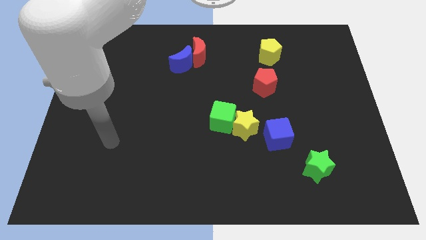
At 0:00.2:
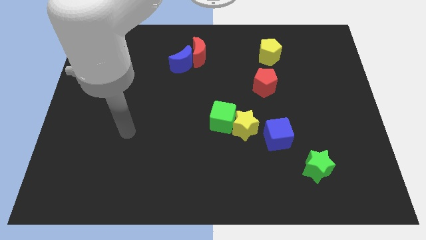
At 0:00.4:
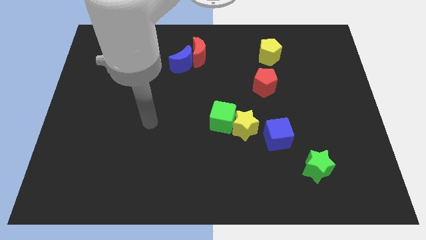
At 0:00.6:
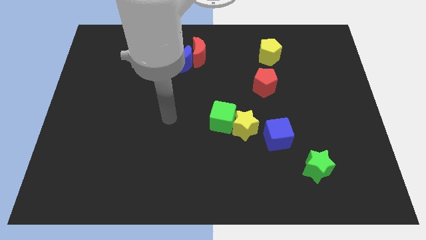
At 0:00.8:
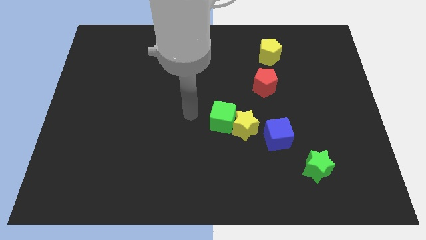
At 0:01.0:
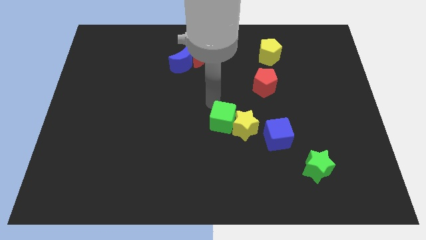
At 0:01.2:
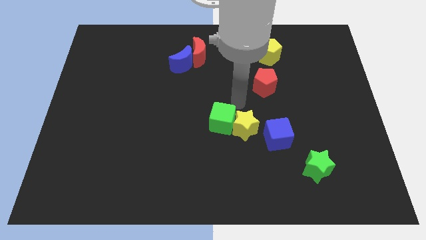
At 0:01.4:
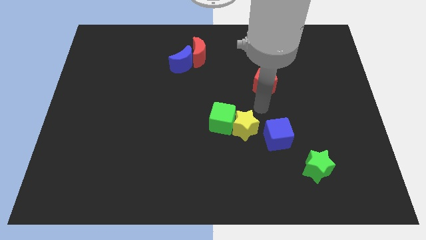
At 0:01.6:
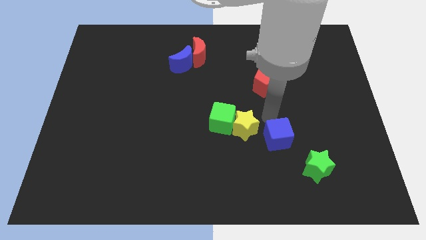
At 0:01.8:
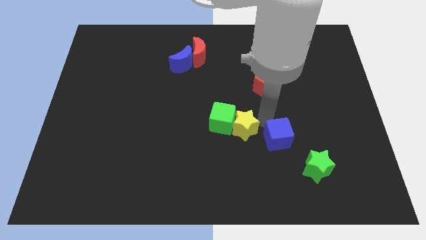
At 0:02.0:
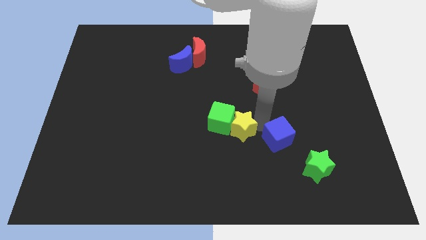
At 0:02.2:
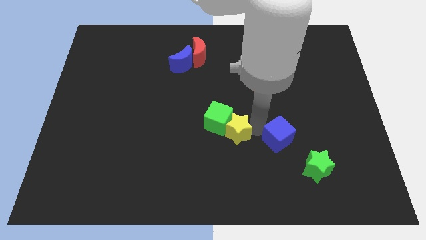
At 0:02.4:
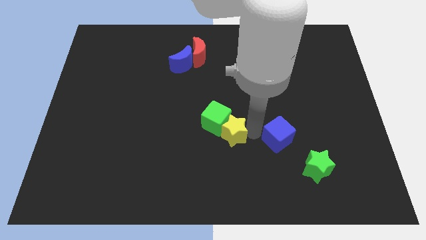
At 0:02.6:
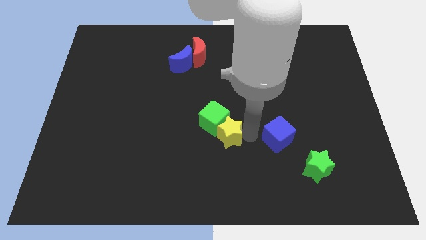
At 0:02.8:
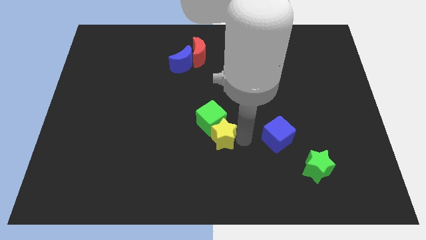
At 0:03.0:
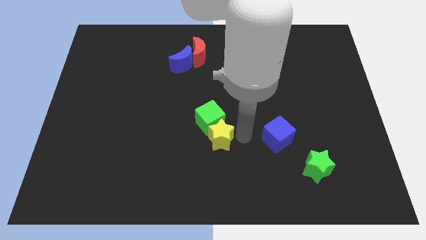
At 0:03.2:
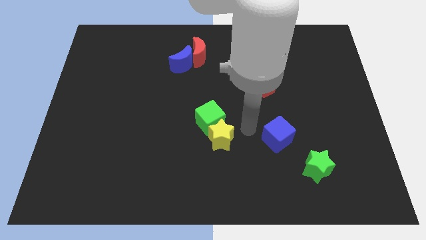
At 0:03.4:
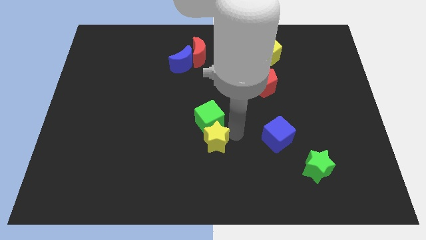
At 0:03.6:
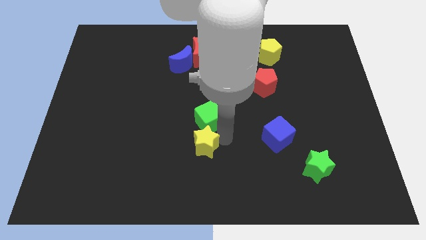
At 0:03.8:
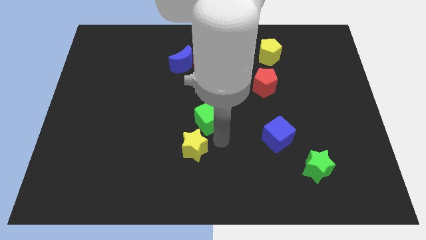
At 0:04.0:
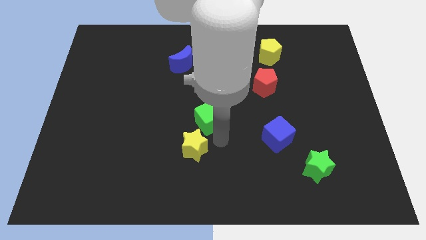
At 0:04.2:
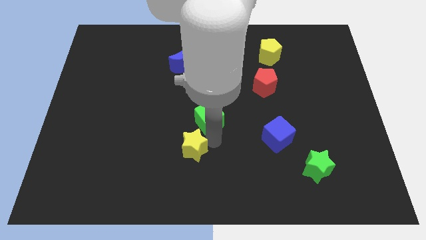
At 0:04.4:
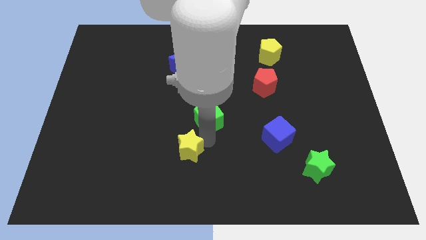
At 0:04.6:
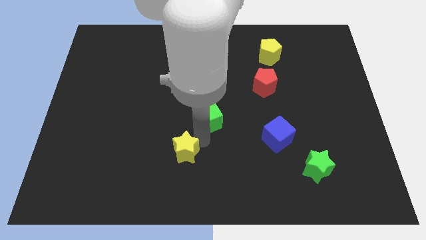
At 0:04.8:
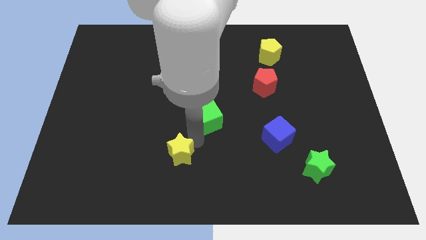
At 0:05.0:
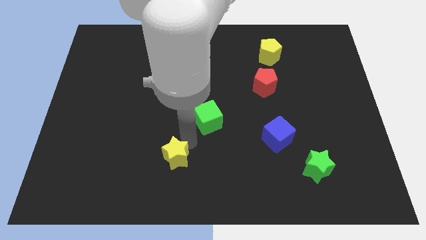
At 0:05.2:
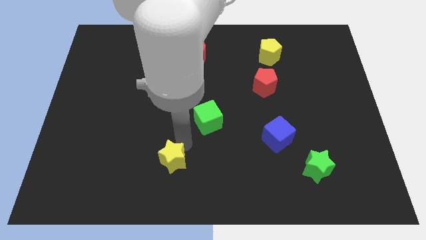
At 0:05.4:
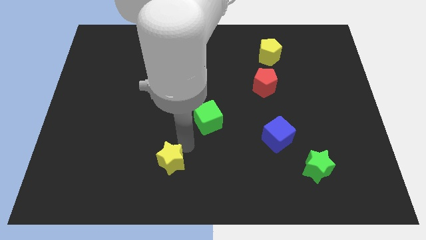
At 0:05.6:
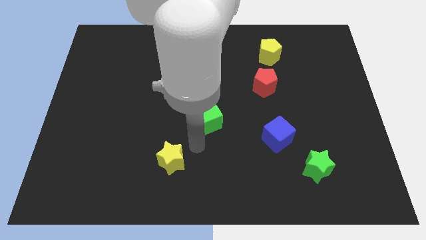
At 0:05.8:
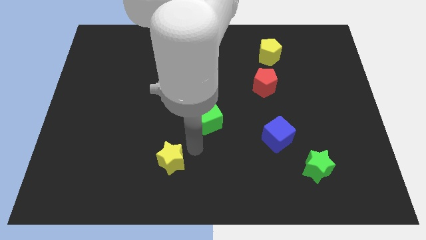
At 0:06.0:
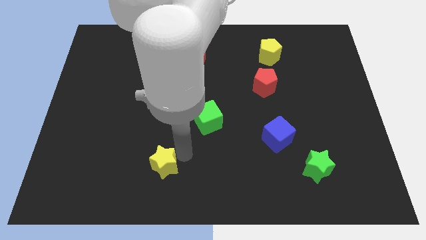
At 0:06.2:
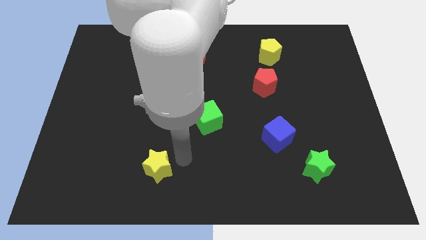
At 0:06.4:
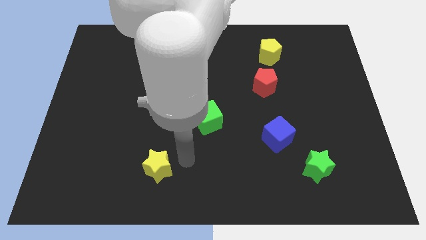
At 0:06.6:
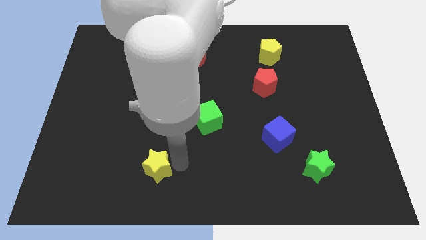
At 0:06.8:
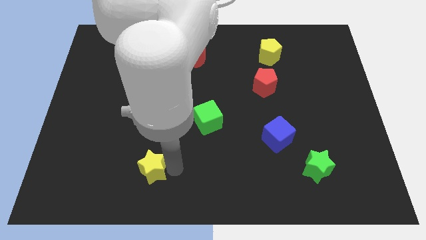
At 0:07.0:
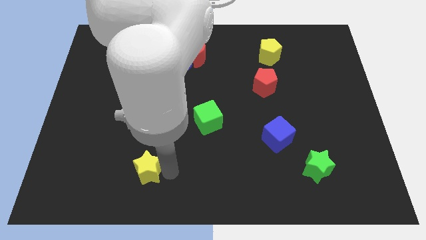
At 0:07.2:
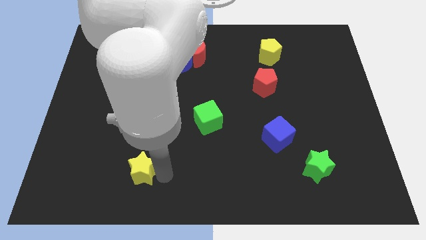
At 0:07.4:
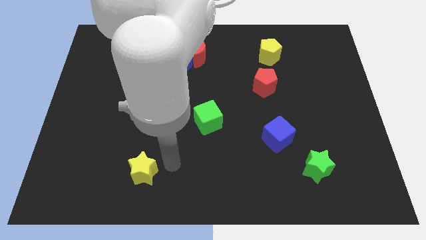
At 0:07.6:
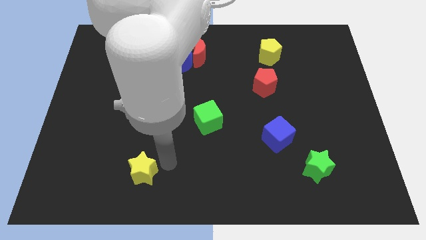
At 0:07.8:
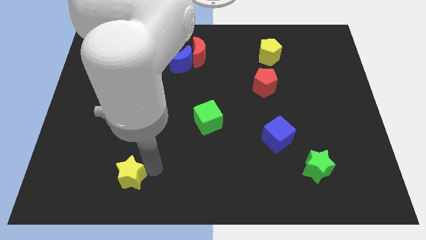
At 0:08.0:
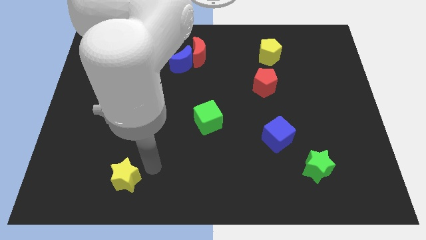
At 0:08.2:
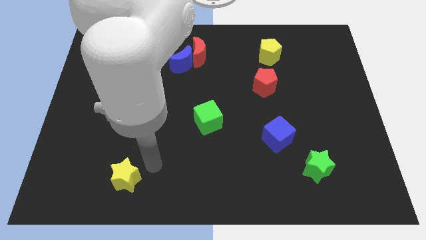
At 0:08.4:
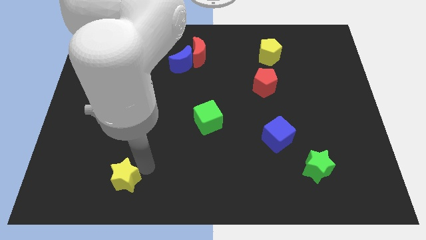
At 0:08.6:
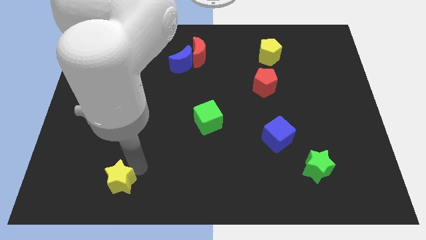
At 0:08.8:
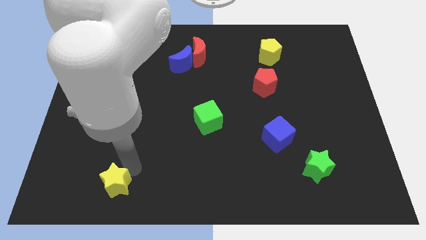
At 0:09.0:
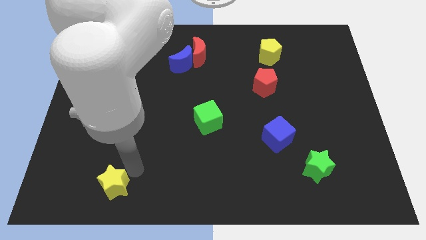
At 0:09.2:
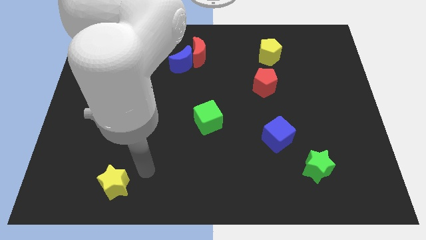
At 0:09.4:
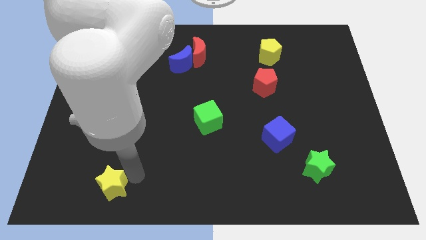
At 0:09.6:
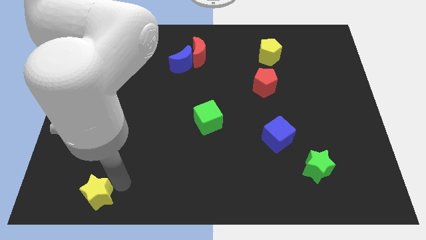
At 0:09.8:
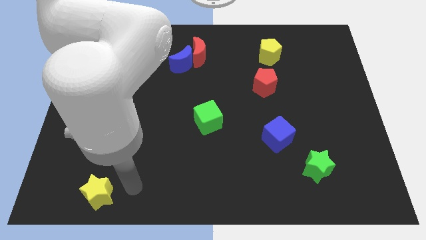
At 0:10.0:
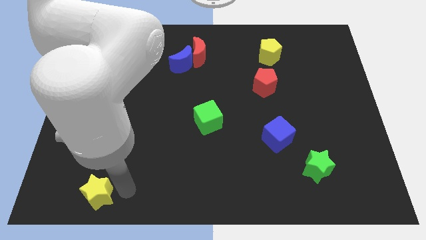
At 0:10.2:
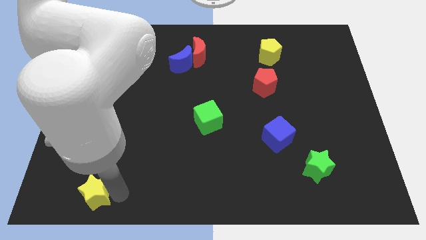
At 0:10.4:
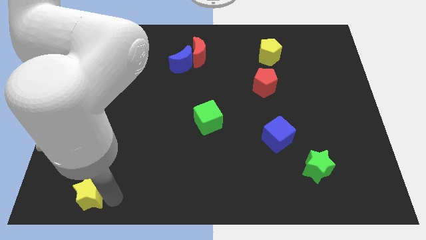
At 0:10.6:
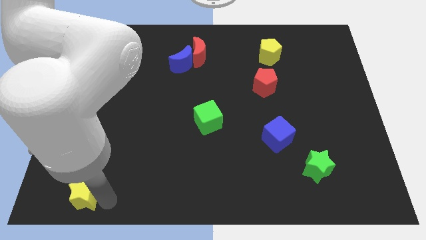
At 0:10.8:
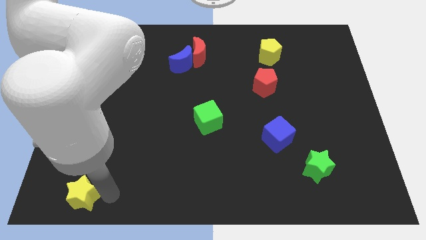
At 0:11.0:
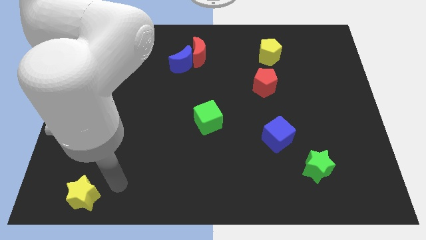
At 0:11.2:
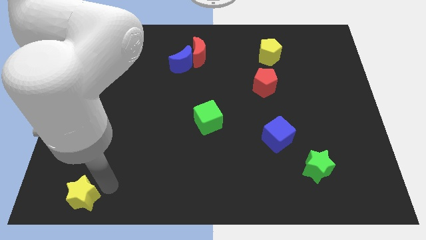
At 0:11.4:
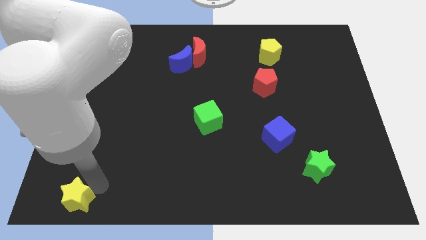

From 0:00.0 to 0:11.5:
slide the yellow star to the bottom left corner
